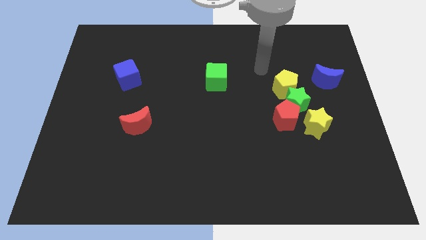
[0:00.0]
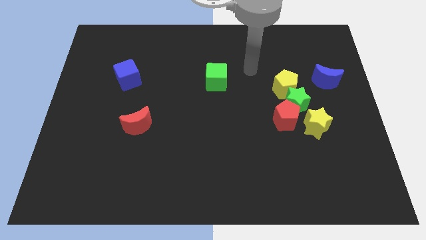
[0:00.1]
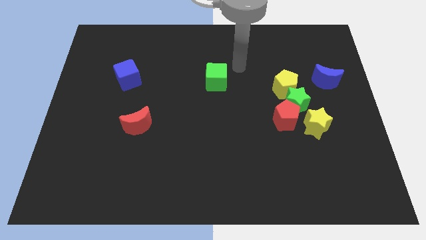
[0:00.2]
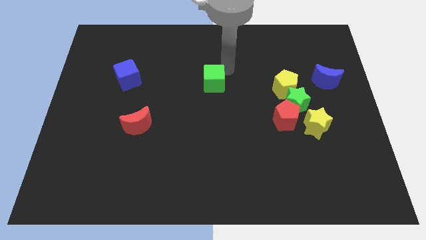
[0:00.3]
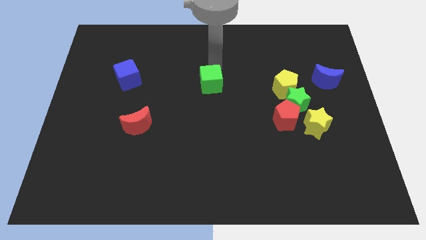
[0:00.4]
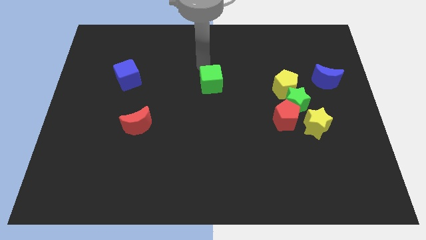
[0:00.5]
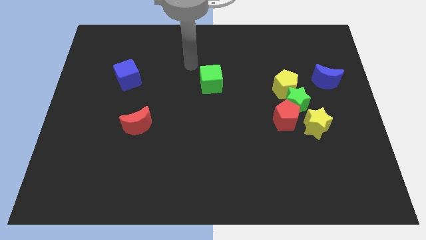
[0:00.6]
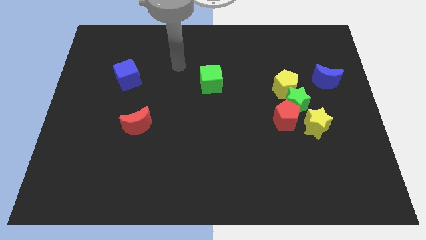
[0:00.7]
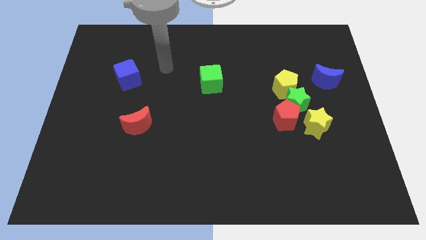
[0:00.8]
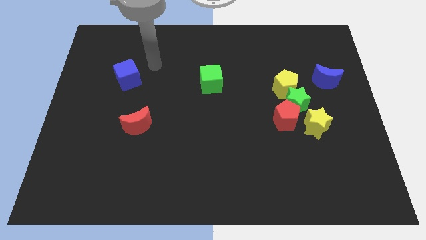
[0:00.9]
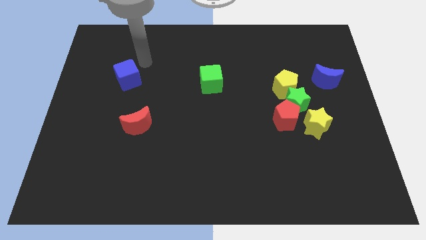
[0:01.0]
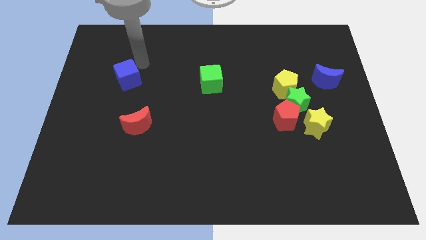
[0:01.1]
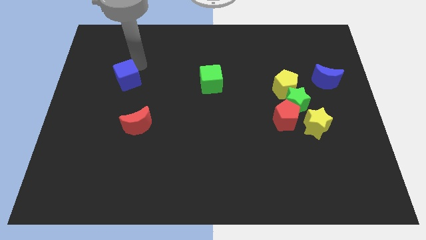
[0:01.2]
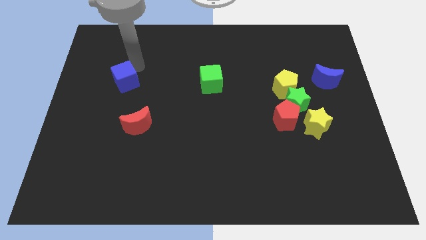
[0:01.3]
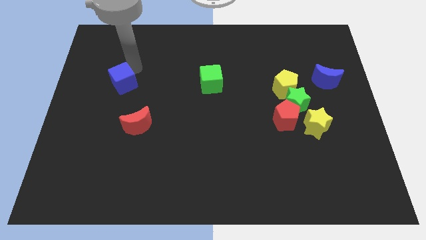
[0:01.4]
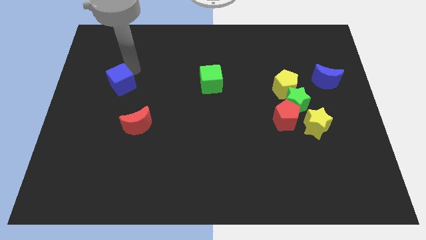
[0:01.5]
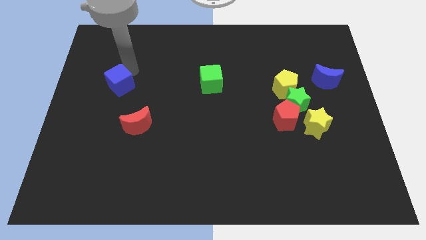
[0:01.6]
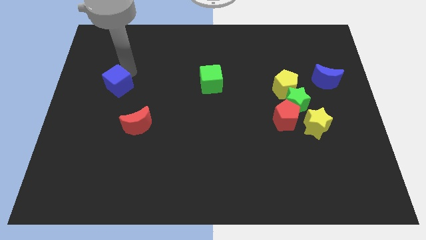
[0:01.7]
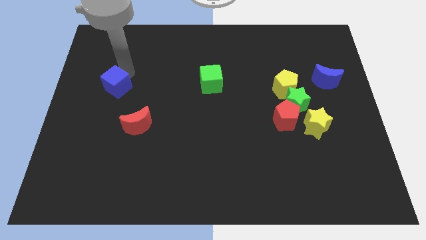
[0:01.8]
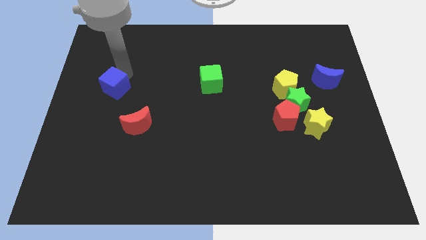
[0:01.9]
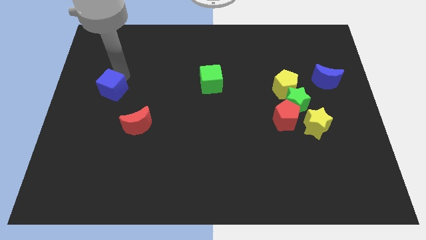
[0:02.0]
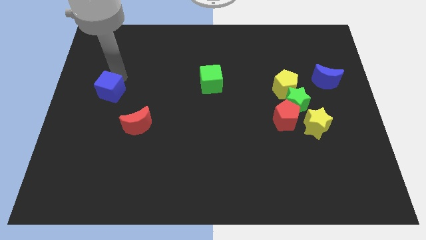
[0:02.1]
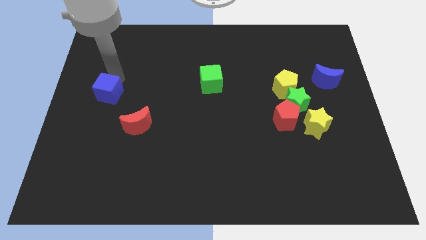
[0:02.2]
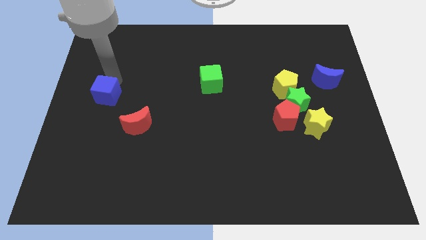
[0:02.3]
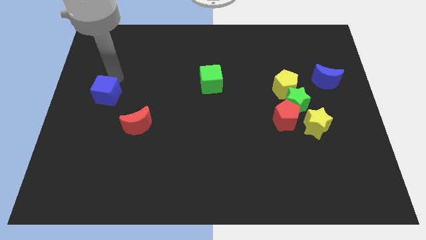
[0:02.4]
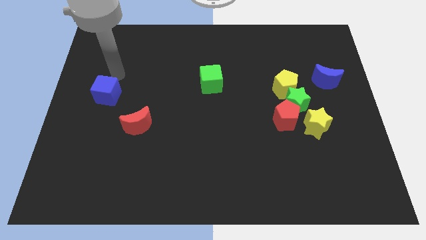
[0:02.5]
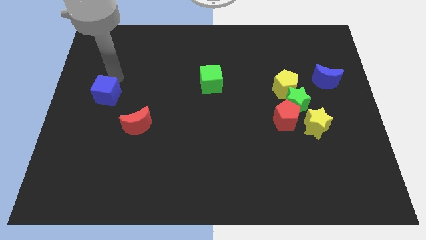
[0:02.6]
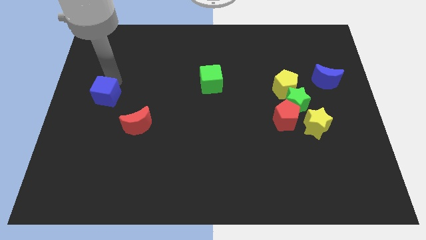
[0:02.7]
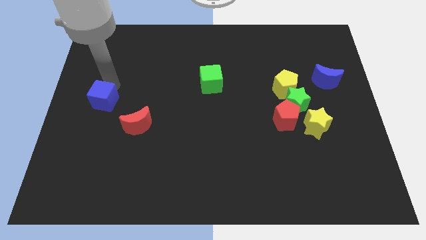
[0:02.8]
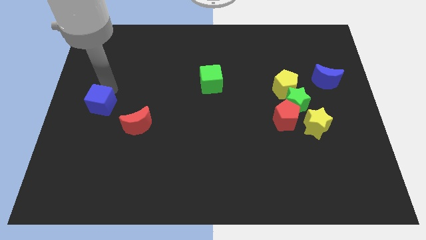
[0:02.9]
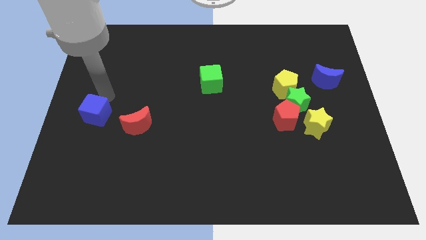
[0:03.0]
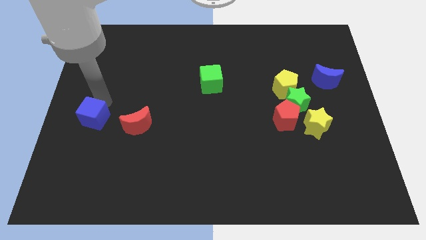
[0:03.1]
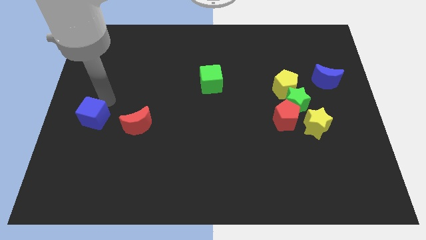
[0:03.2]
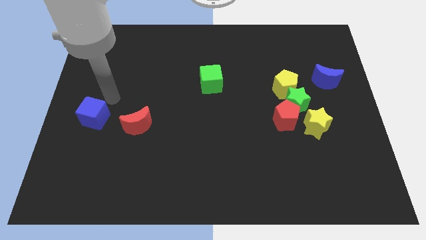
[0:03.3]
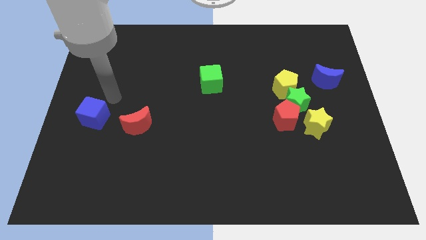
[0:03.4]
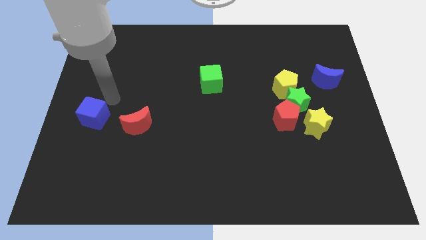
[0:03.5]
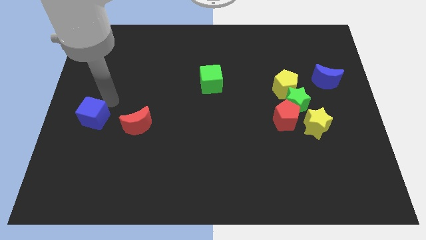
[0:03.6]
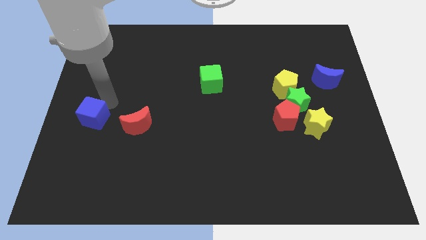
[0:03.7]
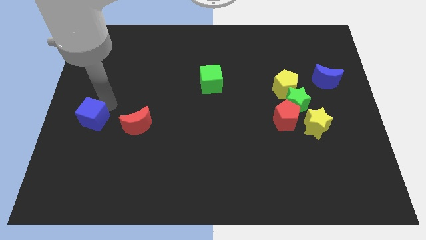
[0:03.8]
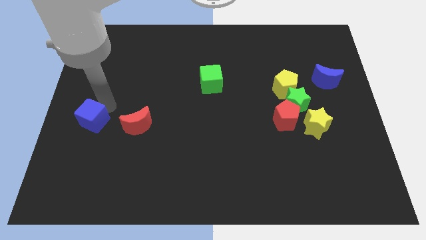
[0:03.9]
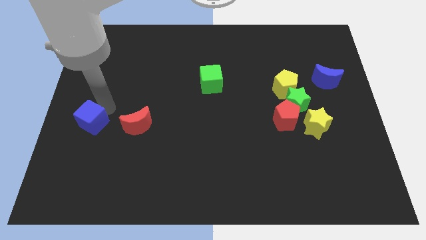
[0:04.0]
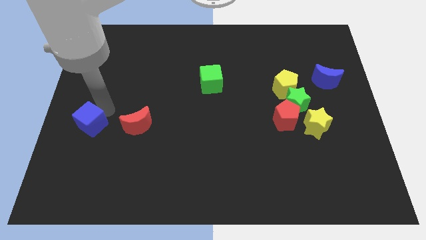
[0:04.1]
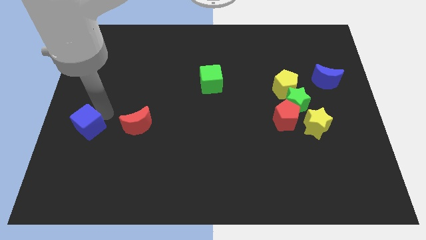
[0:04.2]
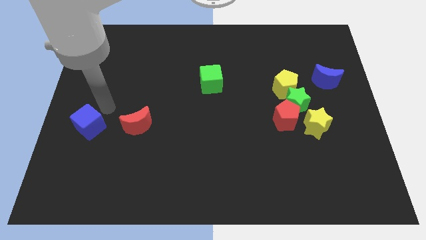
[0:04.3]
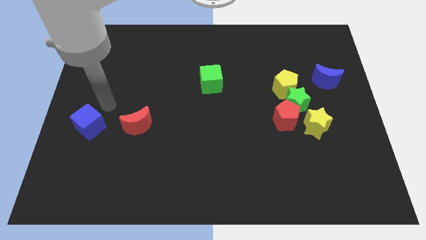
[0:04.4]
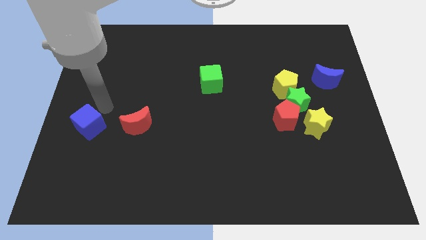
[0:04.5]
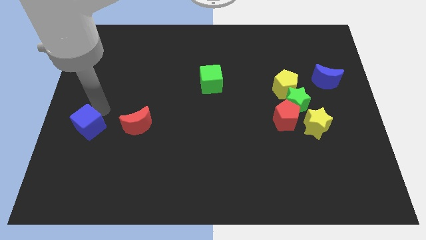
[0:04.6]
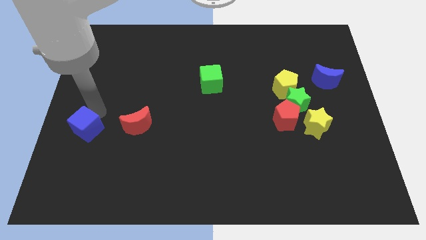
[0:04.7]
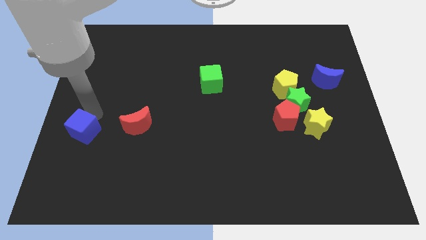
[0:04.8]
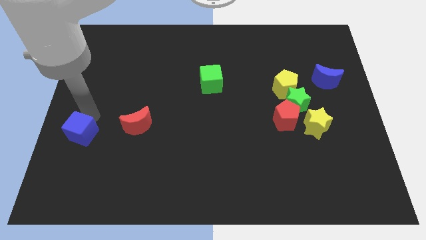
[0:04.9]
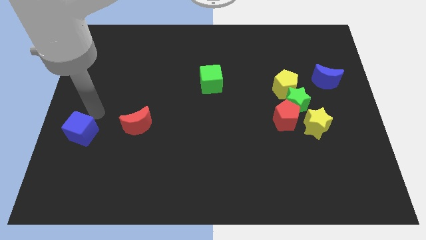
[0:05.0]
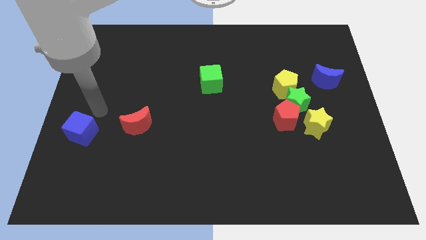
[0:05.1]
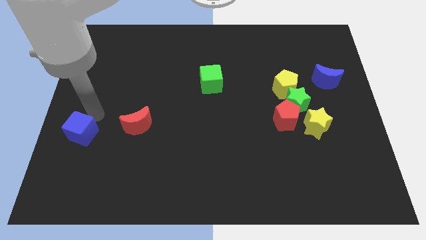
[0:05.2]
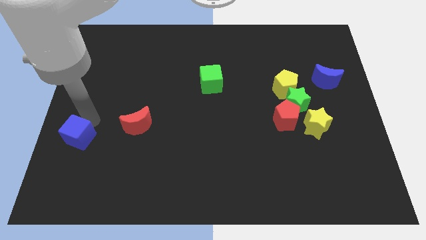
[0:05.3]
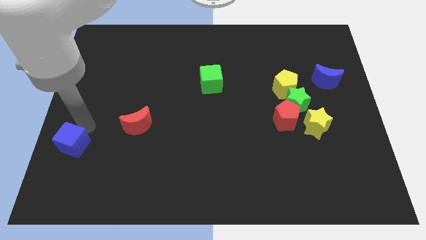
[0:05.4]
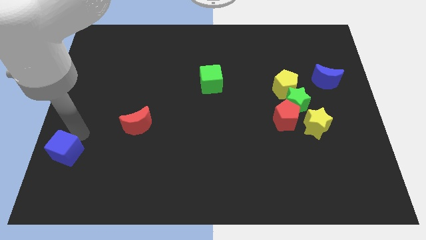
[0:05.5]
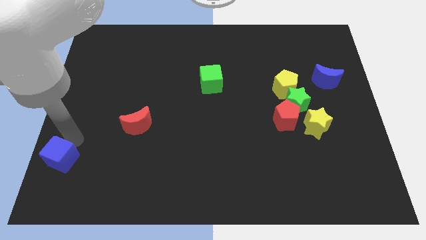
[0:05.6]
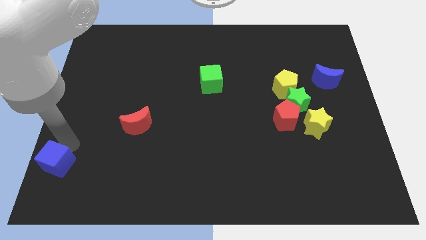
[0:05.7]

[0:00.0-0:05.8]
push the blue cube to the bottom left corner

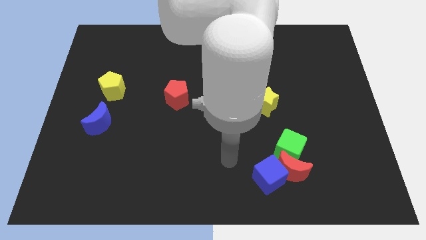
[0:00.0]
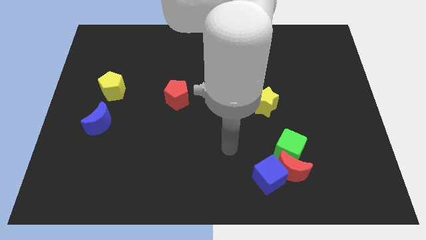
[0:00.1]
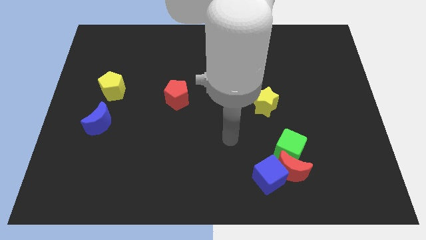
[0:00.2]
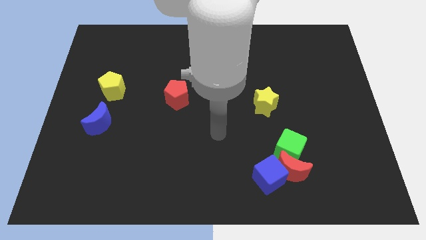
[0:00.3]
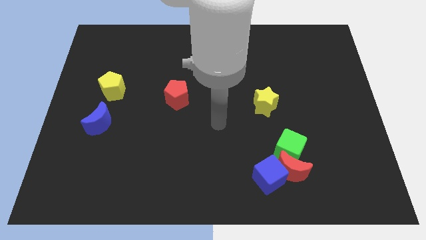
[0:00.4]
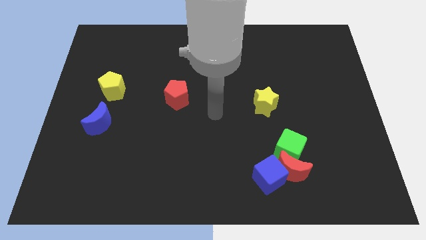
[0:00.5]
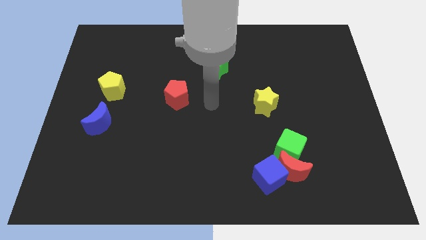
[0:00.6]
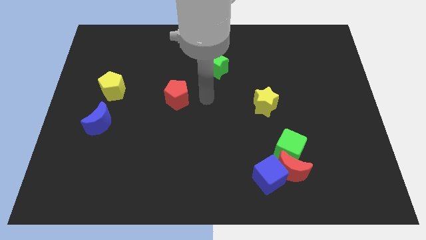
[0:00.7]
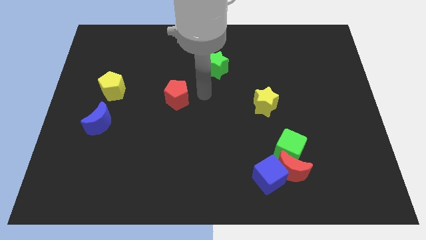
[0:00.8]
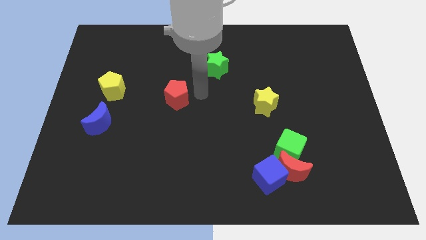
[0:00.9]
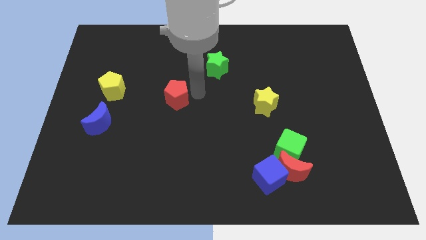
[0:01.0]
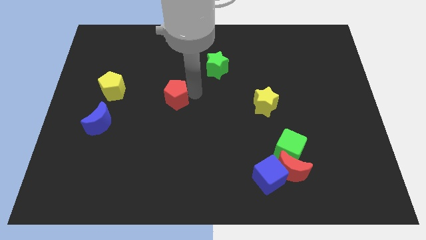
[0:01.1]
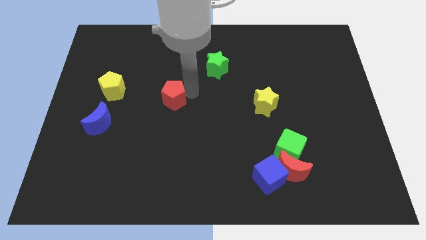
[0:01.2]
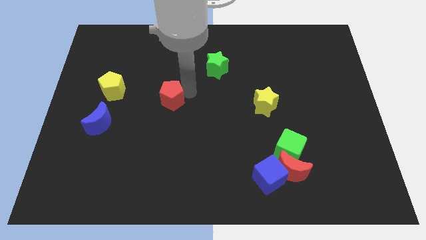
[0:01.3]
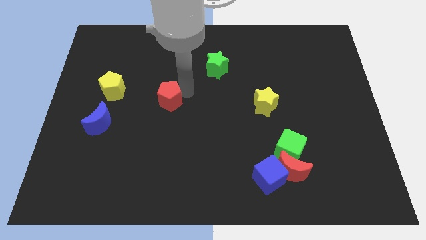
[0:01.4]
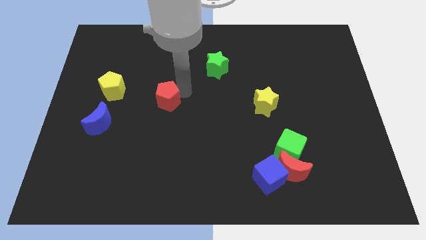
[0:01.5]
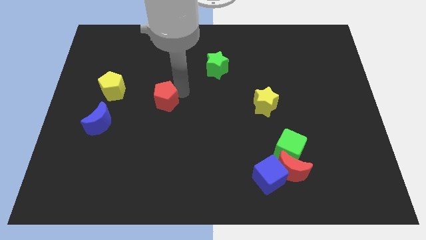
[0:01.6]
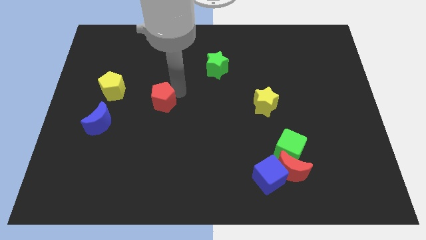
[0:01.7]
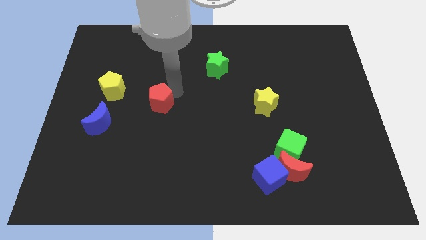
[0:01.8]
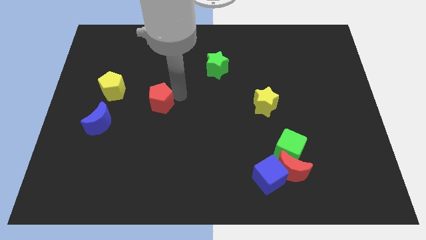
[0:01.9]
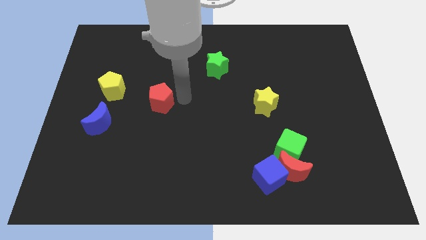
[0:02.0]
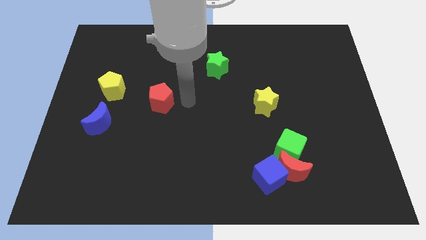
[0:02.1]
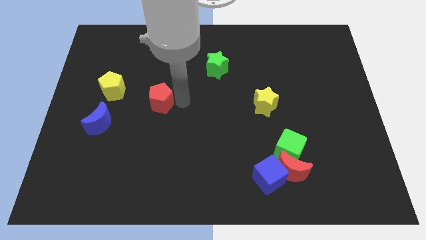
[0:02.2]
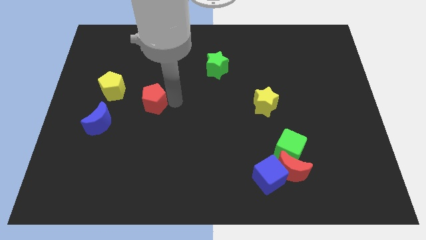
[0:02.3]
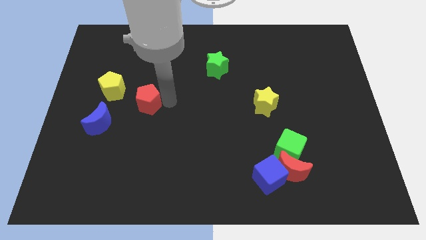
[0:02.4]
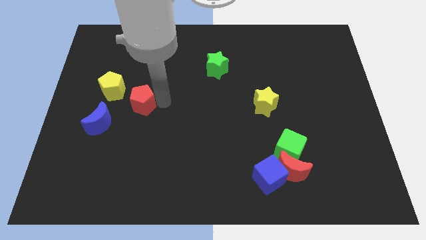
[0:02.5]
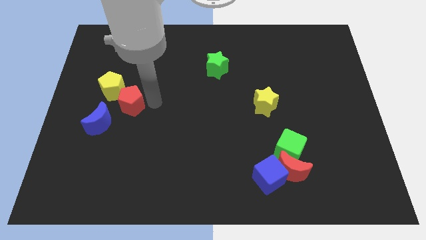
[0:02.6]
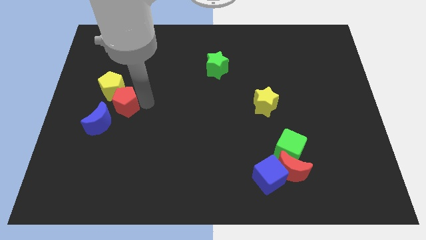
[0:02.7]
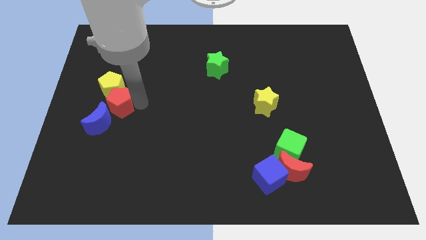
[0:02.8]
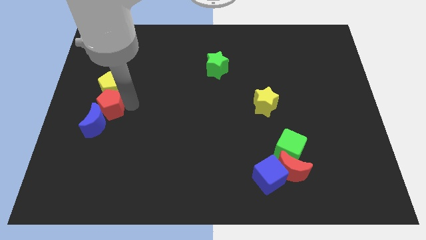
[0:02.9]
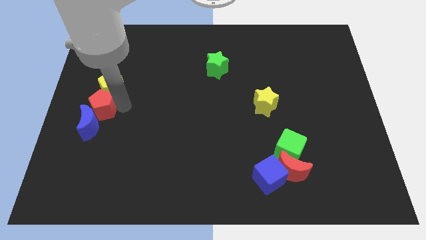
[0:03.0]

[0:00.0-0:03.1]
slide the red pentagon to the center left
